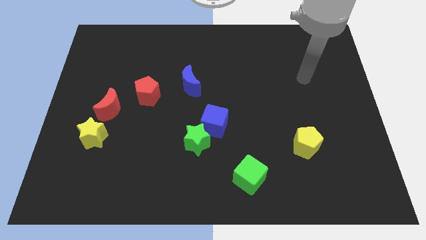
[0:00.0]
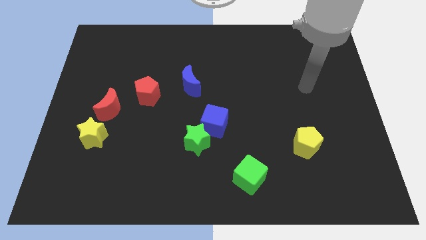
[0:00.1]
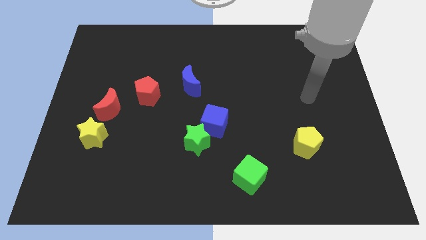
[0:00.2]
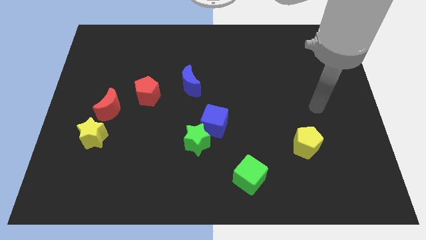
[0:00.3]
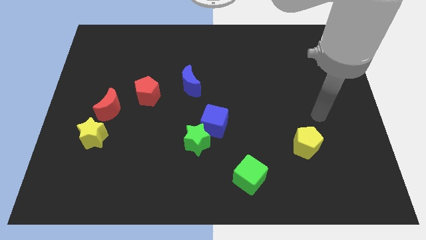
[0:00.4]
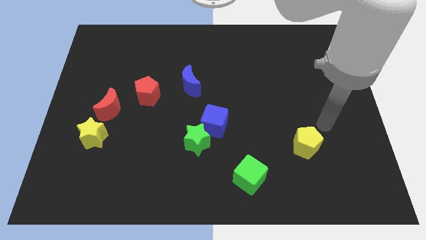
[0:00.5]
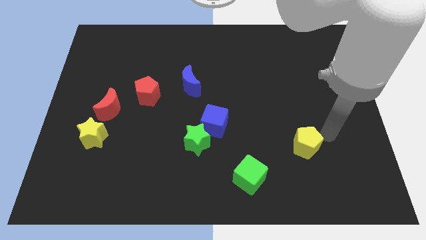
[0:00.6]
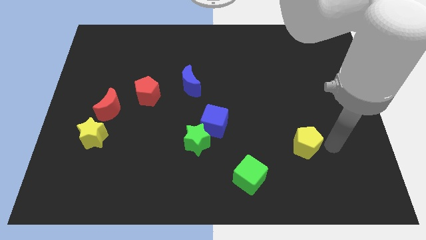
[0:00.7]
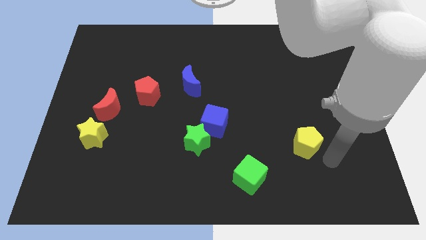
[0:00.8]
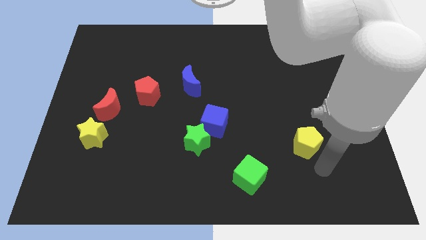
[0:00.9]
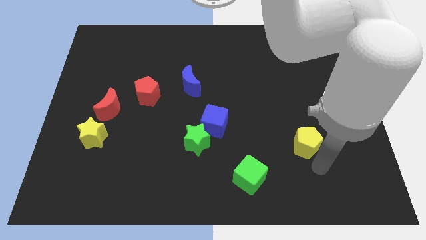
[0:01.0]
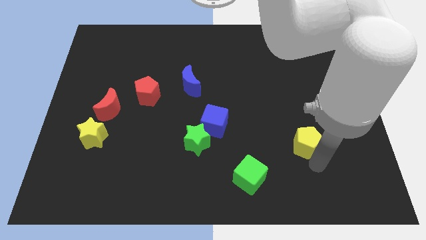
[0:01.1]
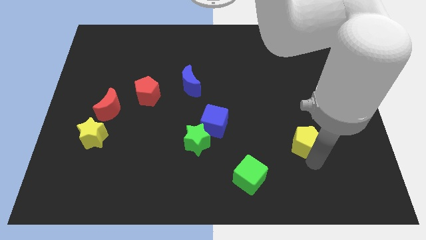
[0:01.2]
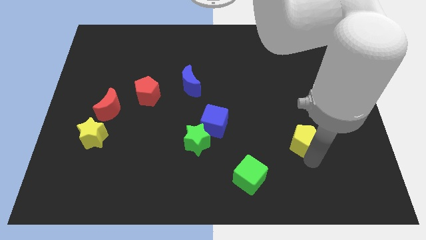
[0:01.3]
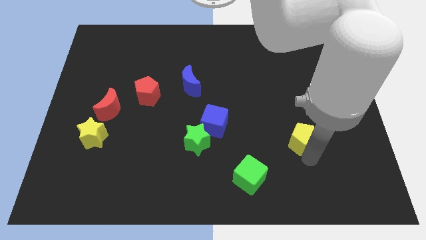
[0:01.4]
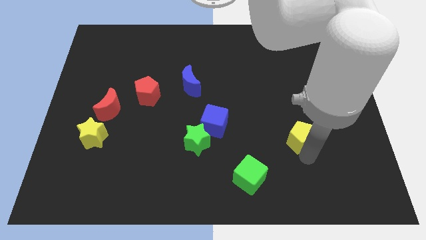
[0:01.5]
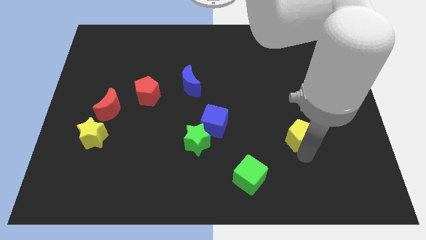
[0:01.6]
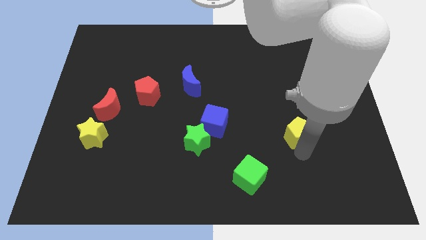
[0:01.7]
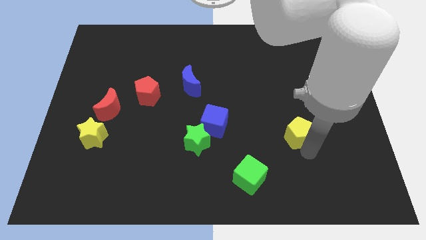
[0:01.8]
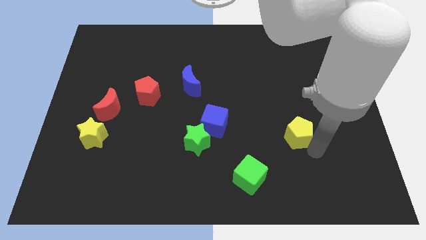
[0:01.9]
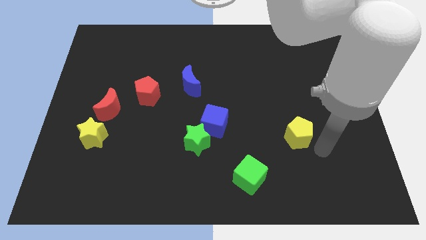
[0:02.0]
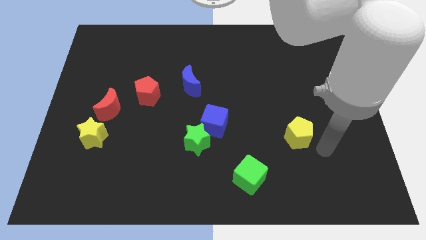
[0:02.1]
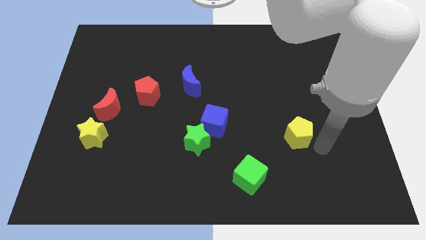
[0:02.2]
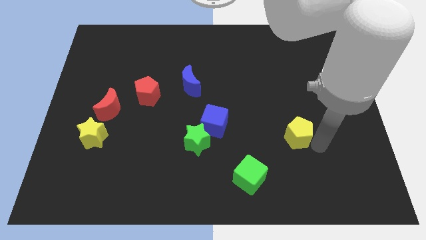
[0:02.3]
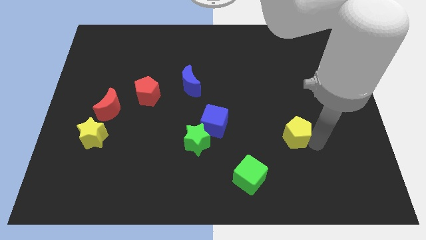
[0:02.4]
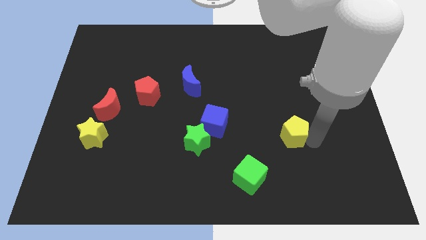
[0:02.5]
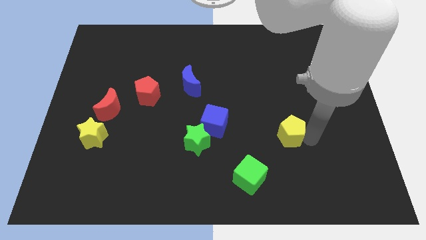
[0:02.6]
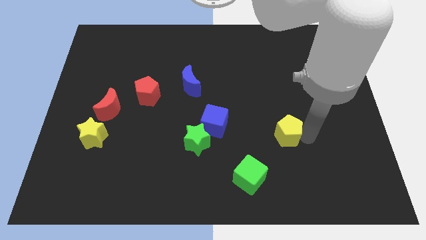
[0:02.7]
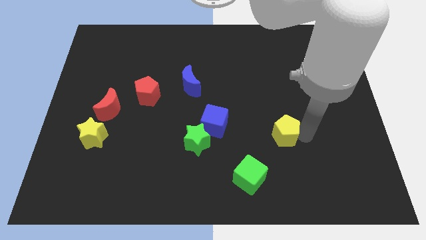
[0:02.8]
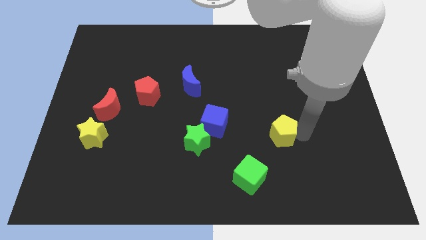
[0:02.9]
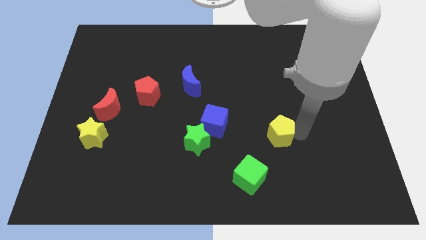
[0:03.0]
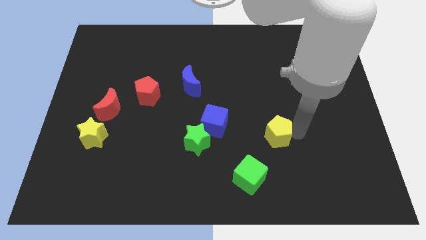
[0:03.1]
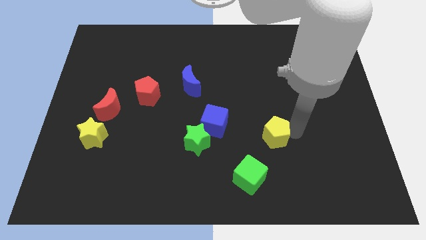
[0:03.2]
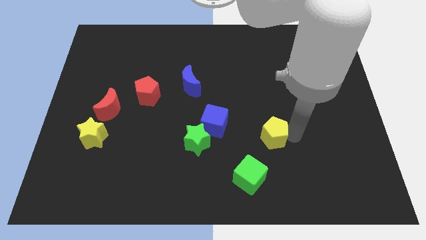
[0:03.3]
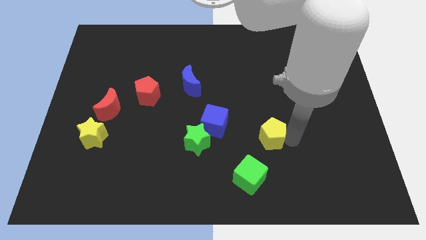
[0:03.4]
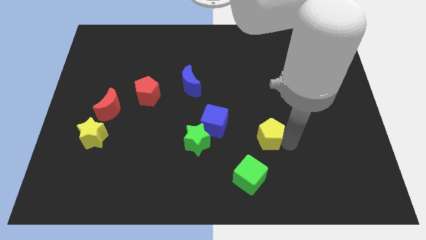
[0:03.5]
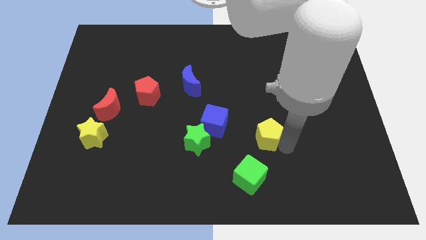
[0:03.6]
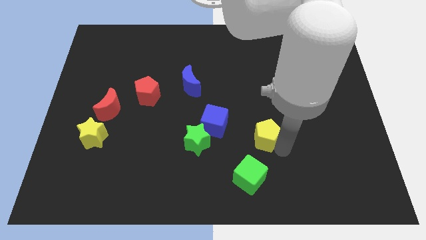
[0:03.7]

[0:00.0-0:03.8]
slide the yellow pentagon a bit upwards and to the left diagonally

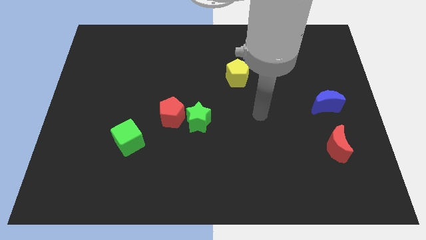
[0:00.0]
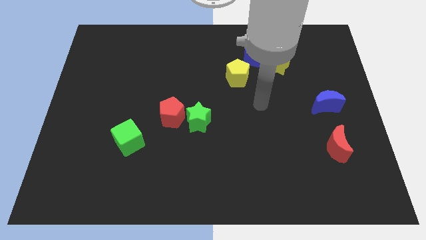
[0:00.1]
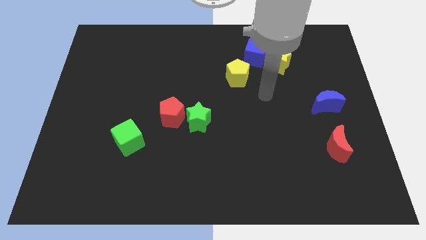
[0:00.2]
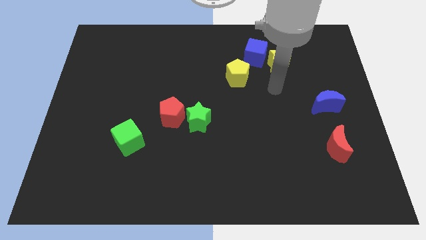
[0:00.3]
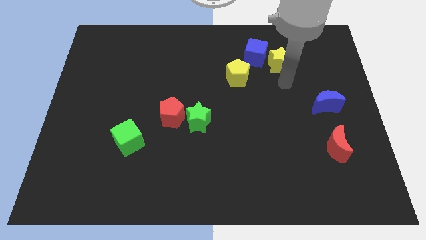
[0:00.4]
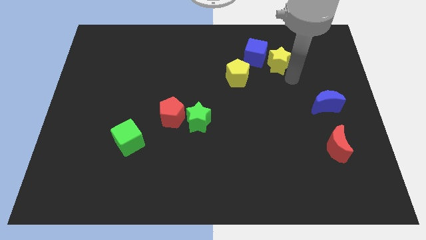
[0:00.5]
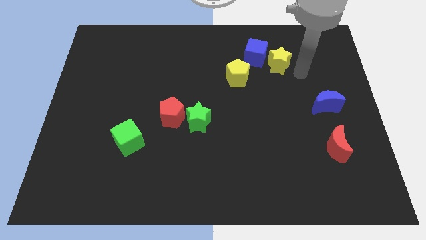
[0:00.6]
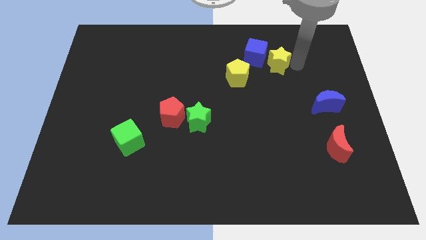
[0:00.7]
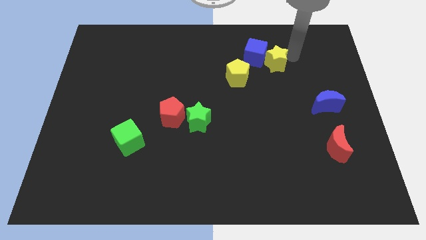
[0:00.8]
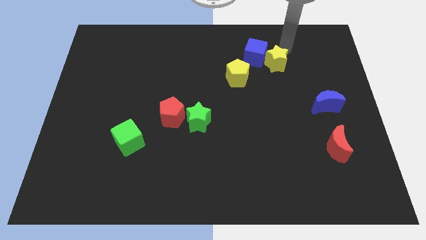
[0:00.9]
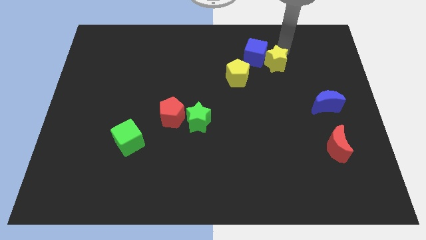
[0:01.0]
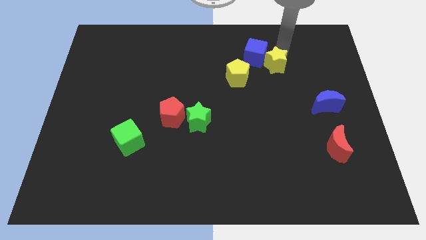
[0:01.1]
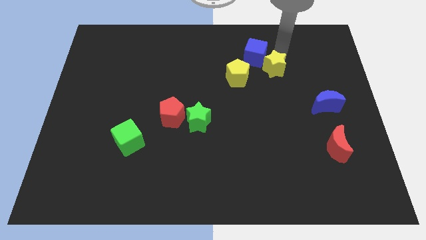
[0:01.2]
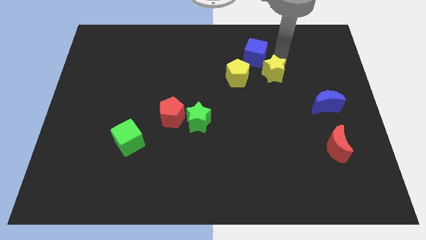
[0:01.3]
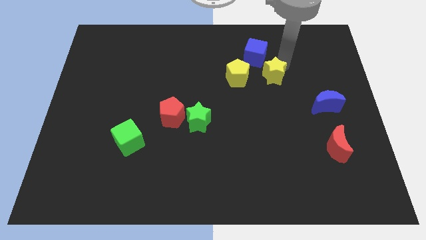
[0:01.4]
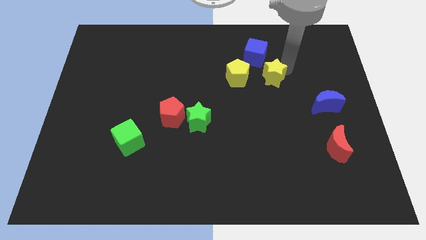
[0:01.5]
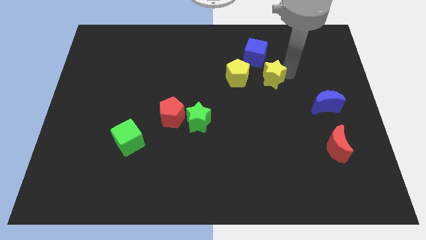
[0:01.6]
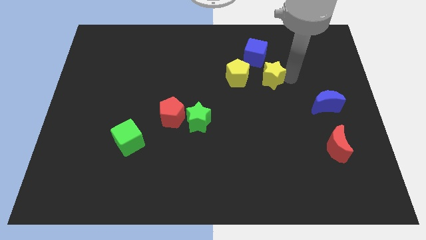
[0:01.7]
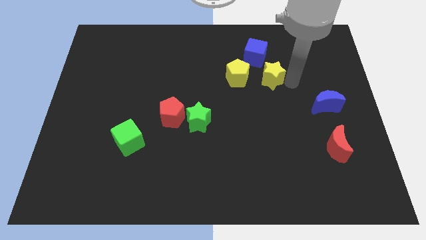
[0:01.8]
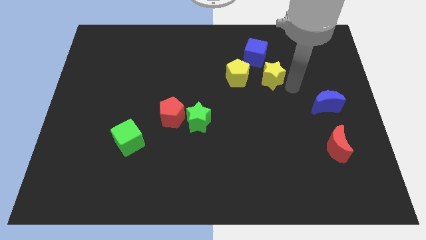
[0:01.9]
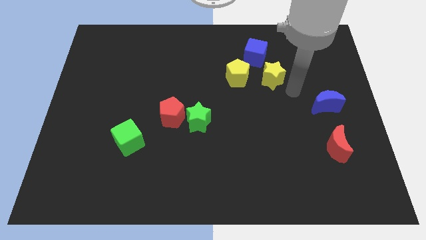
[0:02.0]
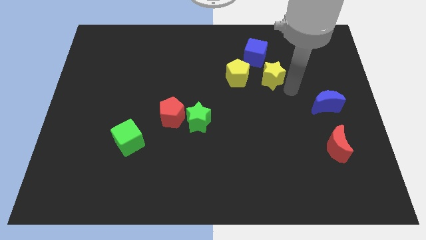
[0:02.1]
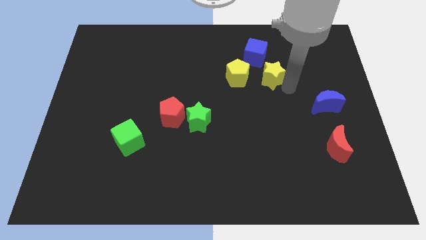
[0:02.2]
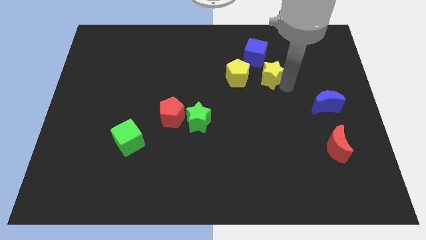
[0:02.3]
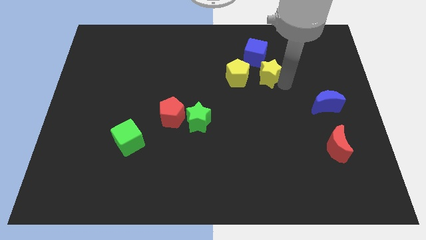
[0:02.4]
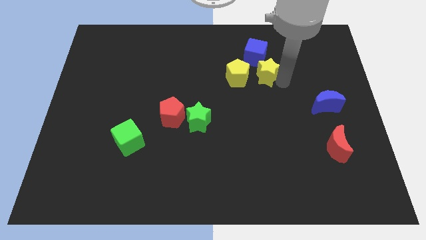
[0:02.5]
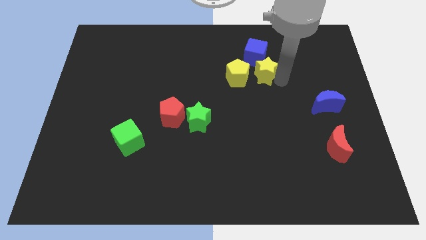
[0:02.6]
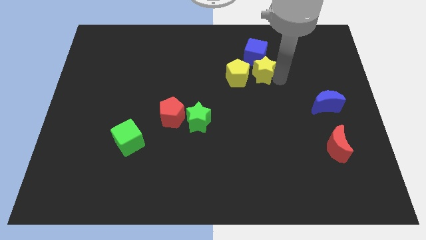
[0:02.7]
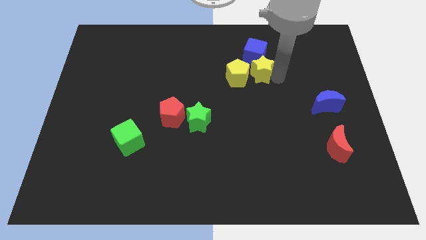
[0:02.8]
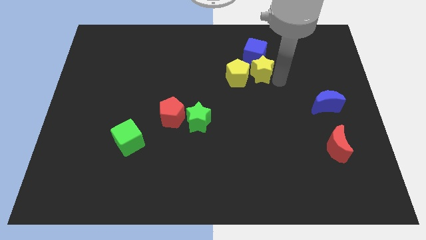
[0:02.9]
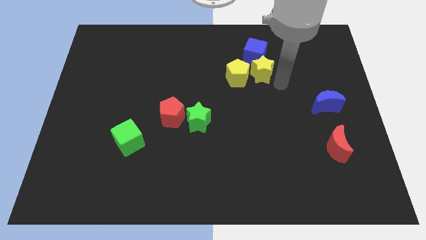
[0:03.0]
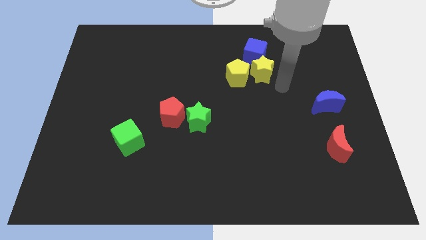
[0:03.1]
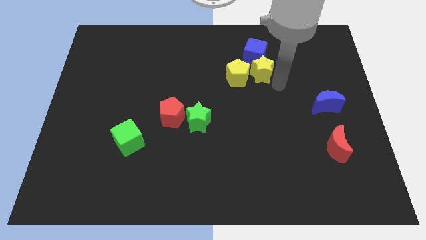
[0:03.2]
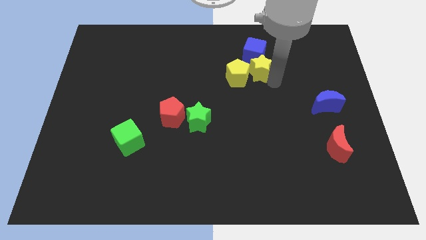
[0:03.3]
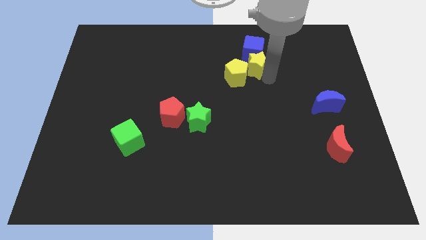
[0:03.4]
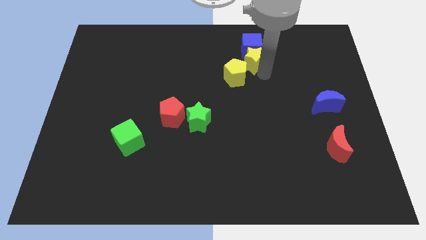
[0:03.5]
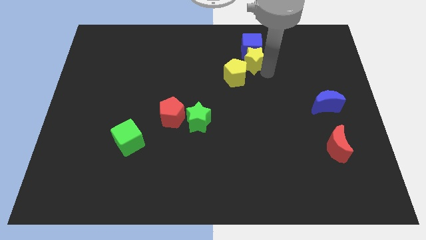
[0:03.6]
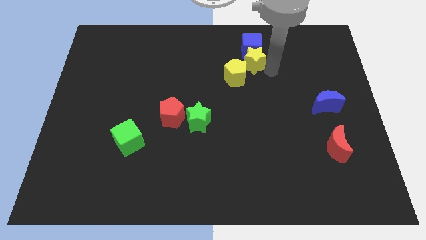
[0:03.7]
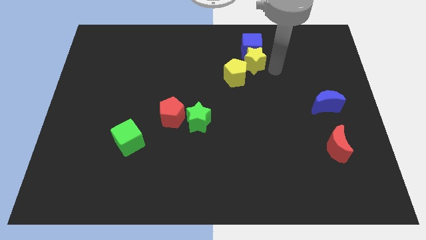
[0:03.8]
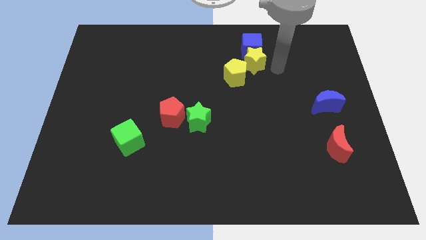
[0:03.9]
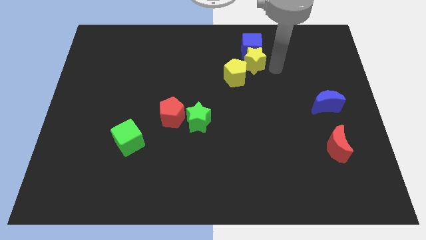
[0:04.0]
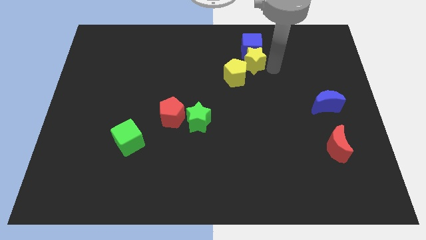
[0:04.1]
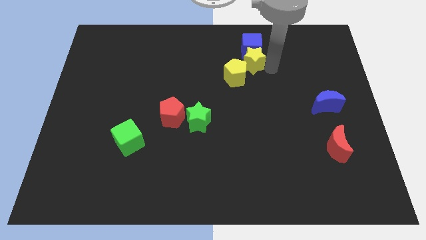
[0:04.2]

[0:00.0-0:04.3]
move the yellow star to the left a little
